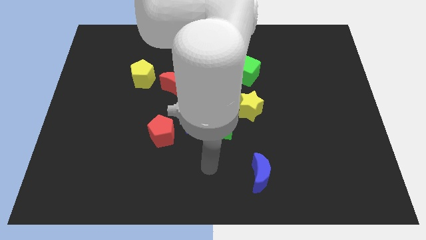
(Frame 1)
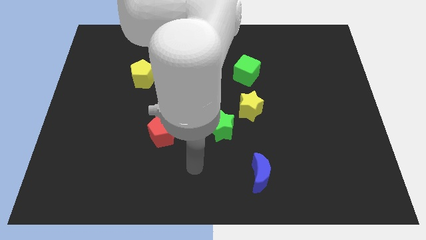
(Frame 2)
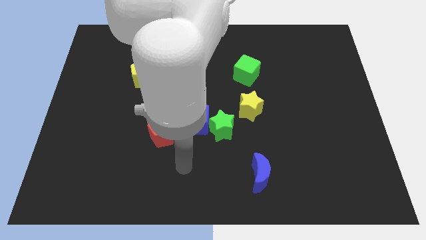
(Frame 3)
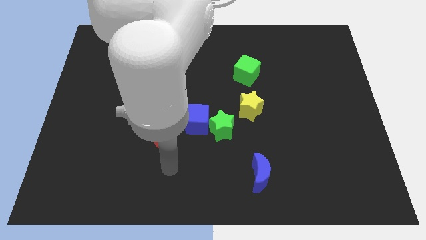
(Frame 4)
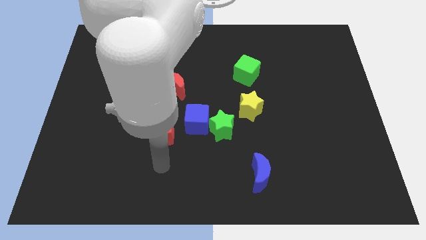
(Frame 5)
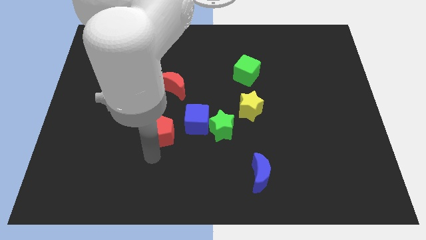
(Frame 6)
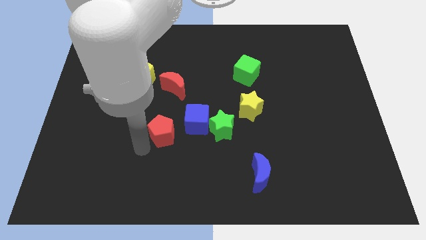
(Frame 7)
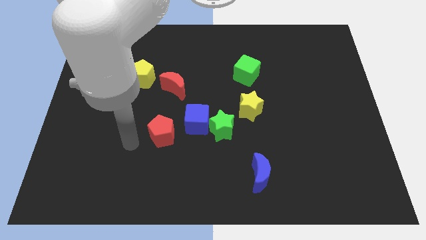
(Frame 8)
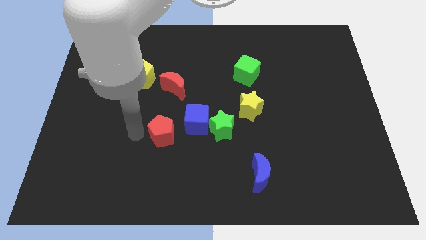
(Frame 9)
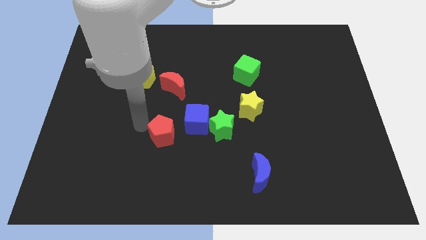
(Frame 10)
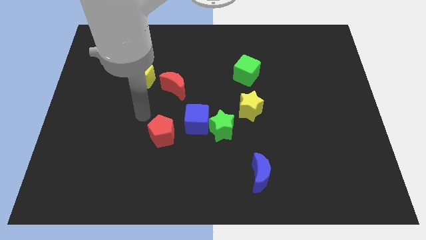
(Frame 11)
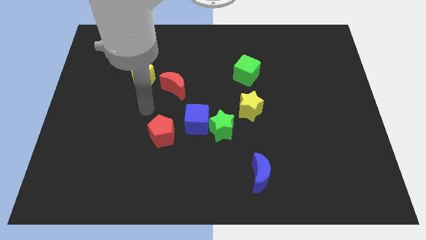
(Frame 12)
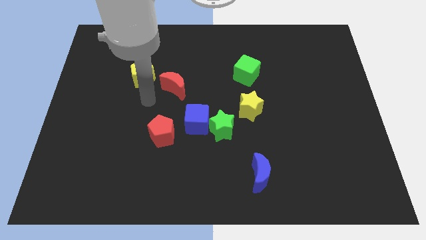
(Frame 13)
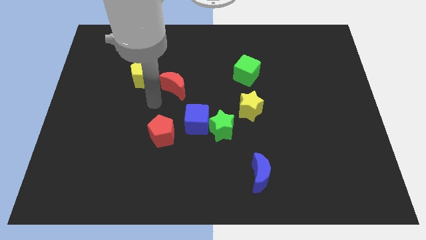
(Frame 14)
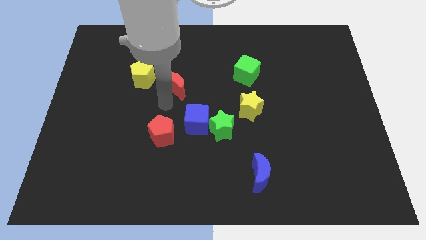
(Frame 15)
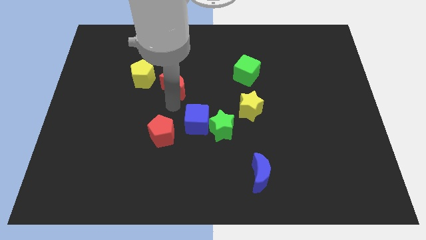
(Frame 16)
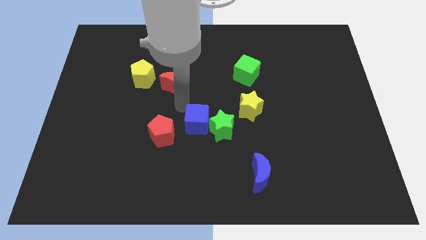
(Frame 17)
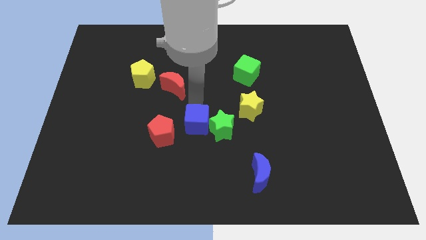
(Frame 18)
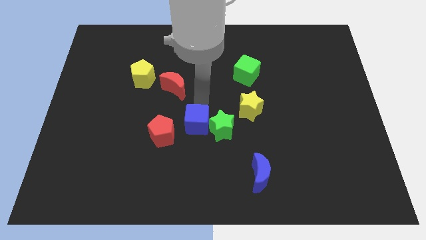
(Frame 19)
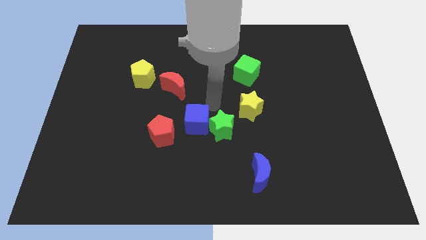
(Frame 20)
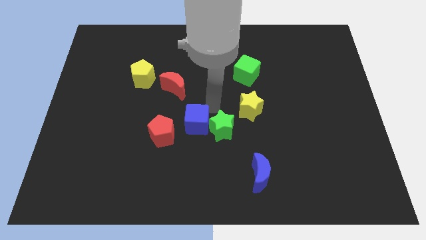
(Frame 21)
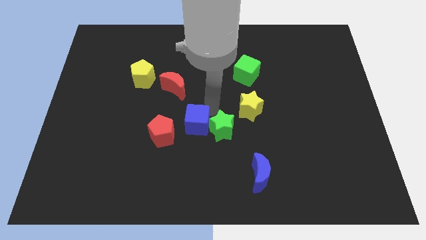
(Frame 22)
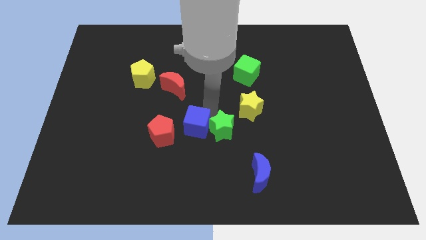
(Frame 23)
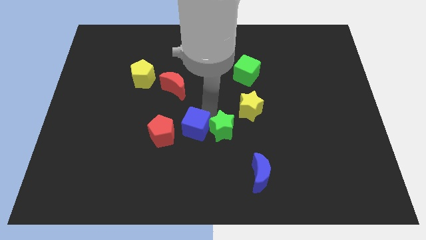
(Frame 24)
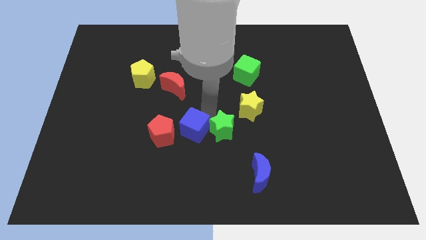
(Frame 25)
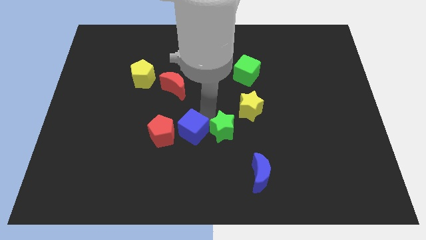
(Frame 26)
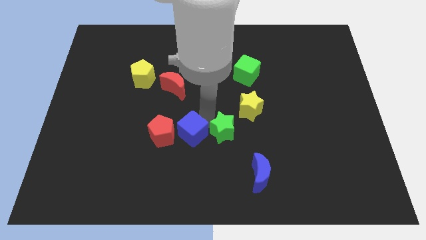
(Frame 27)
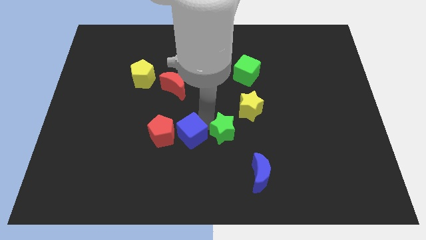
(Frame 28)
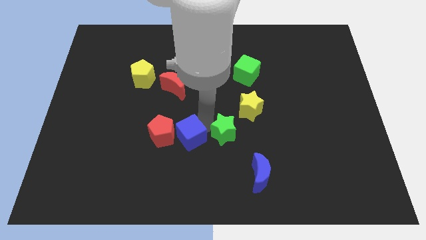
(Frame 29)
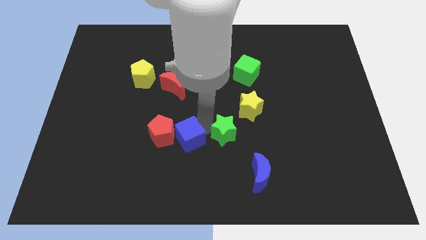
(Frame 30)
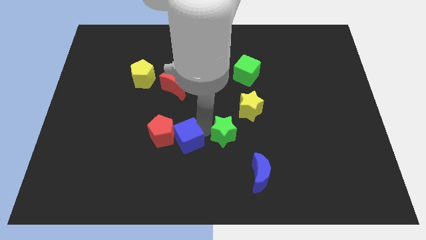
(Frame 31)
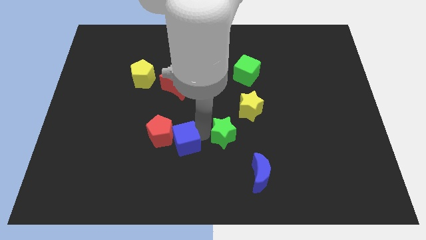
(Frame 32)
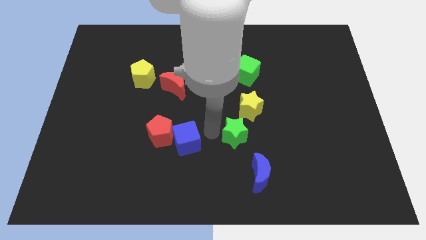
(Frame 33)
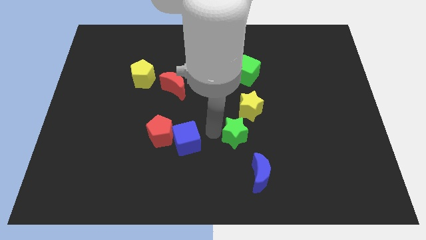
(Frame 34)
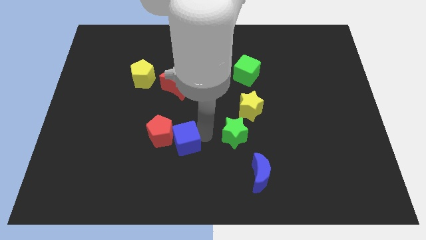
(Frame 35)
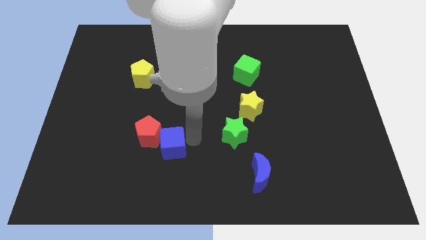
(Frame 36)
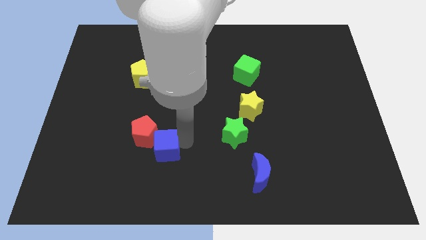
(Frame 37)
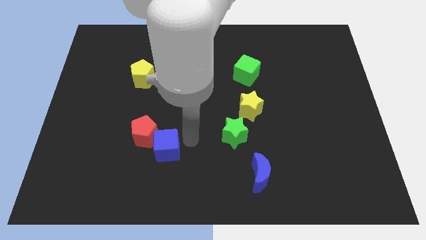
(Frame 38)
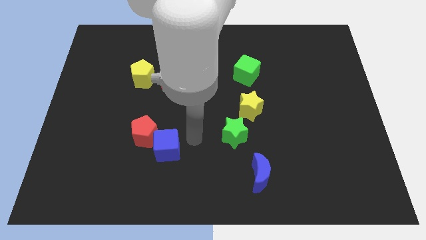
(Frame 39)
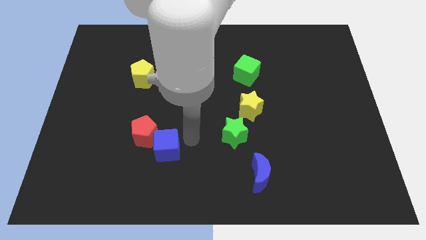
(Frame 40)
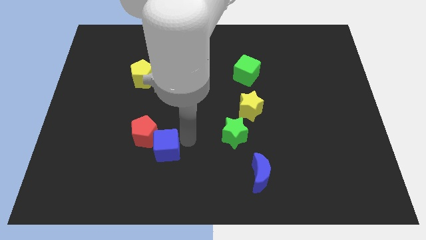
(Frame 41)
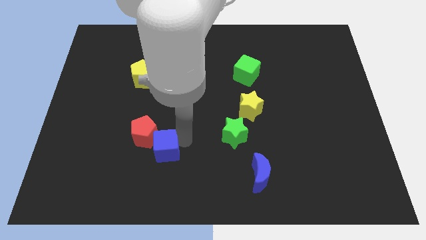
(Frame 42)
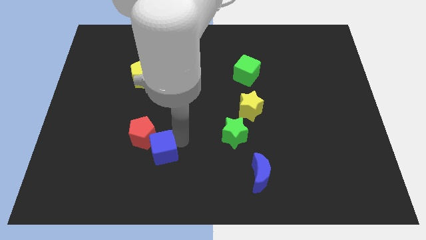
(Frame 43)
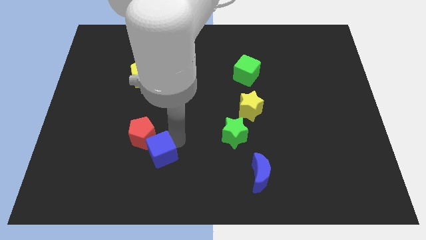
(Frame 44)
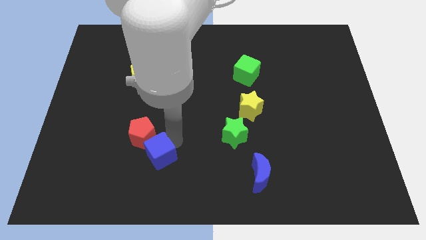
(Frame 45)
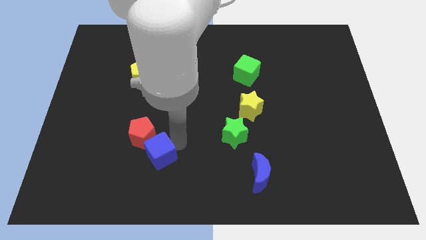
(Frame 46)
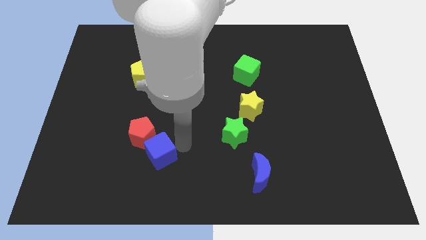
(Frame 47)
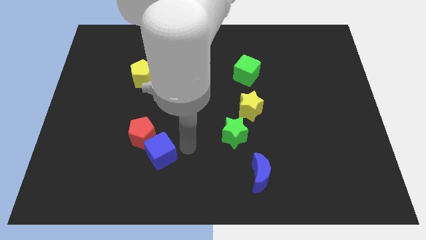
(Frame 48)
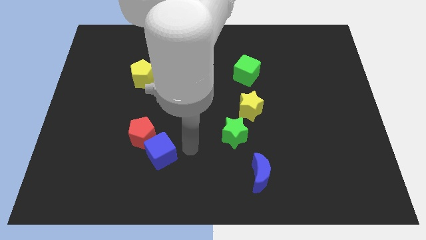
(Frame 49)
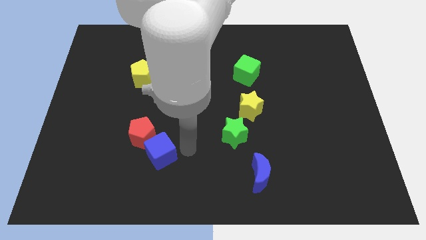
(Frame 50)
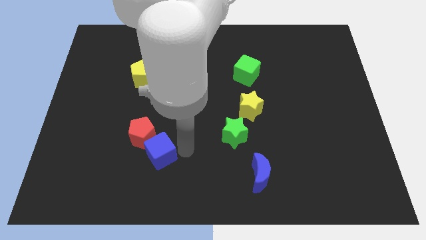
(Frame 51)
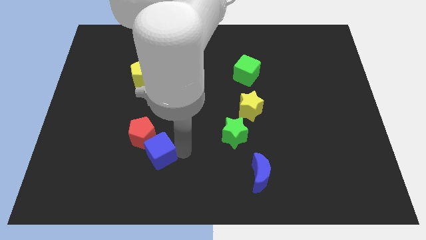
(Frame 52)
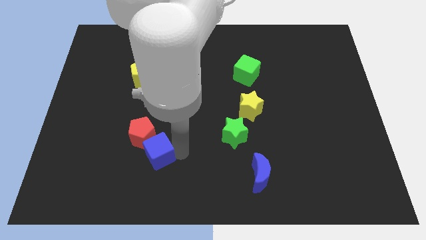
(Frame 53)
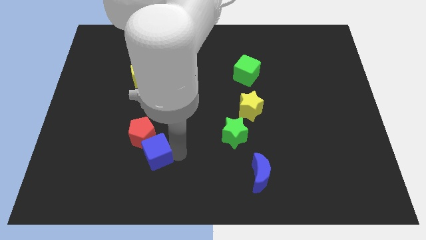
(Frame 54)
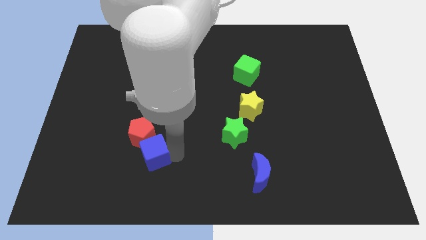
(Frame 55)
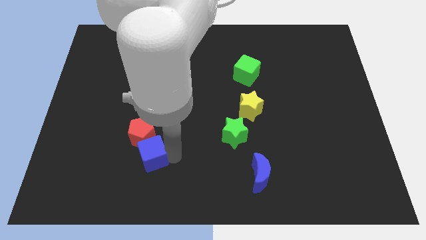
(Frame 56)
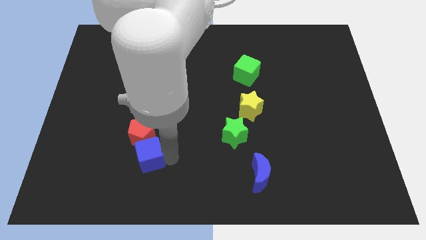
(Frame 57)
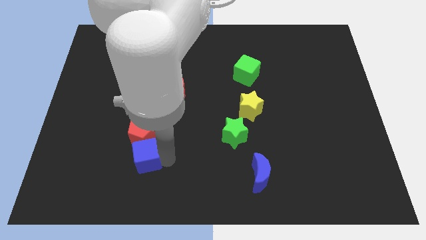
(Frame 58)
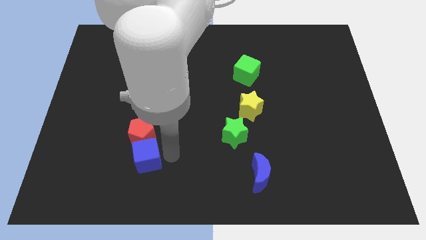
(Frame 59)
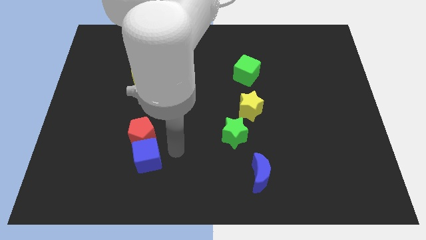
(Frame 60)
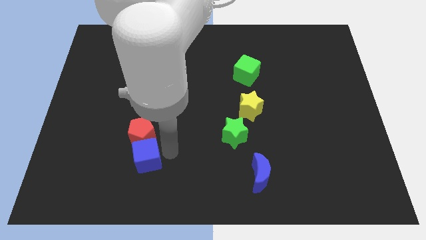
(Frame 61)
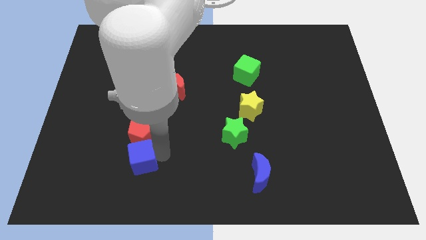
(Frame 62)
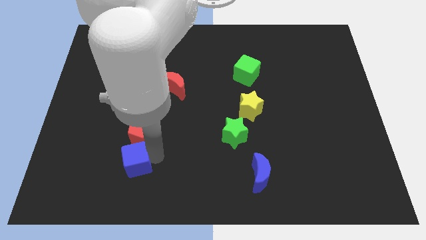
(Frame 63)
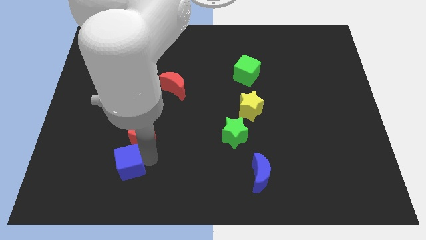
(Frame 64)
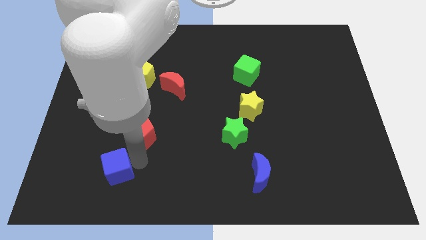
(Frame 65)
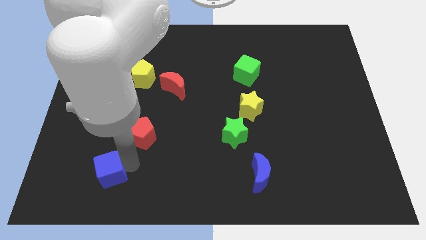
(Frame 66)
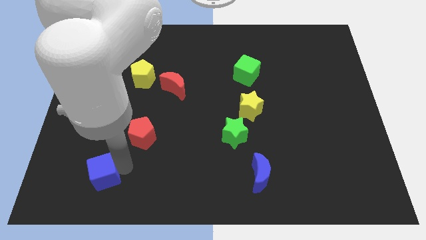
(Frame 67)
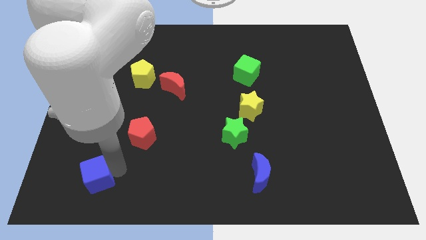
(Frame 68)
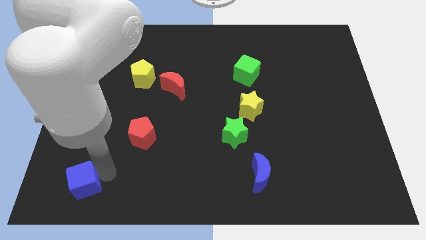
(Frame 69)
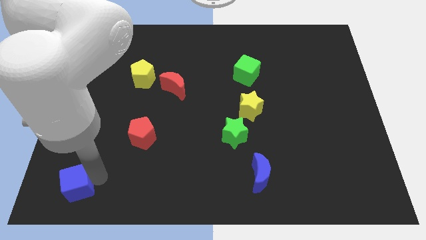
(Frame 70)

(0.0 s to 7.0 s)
push the blue cube to the bottom left of the board

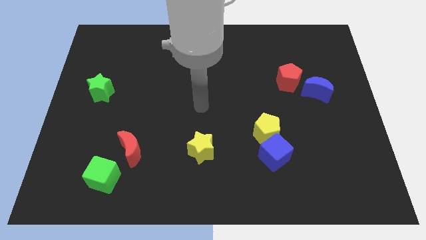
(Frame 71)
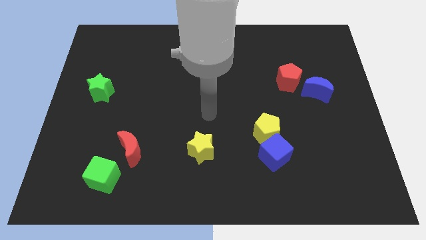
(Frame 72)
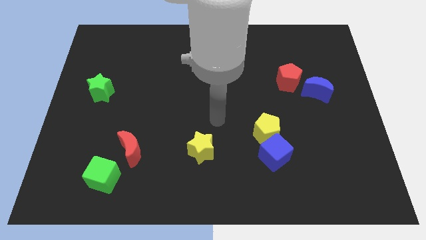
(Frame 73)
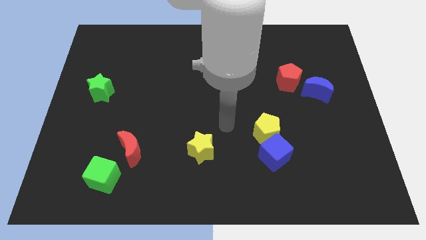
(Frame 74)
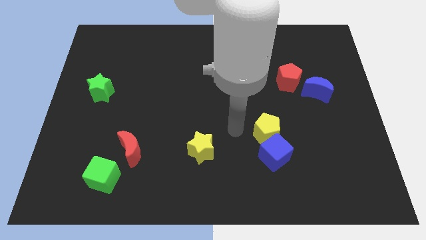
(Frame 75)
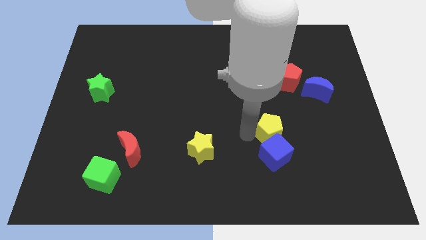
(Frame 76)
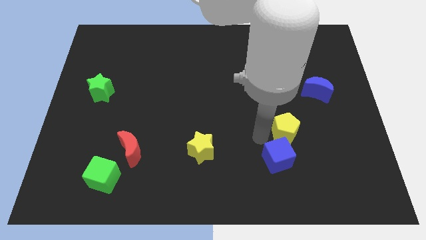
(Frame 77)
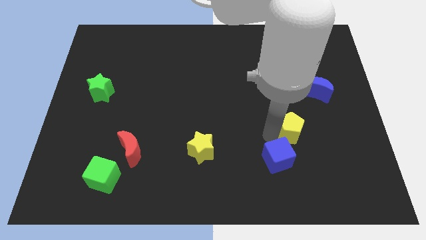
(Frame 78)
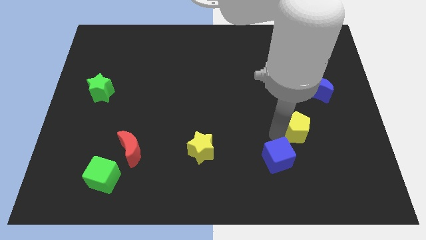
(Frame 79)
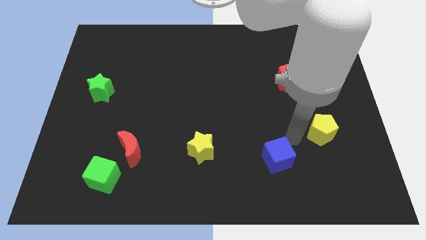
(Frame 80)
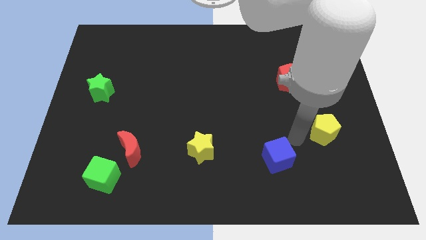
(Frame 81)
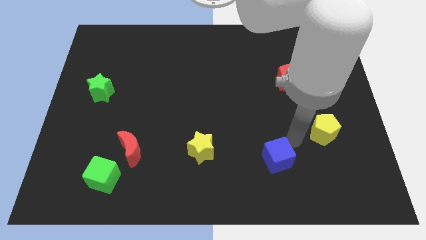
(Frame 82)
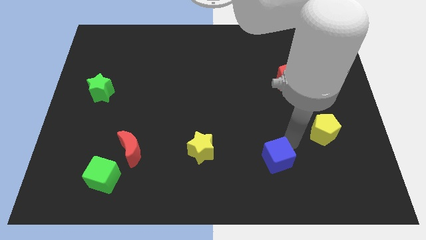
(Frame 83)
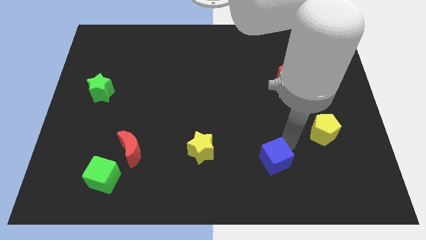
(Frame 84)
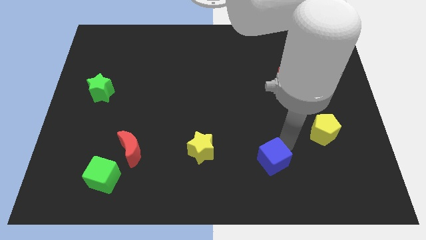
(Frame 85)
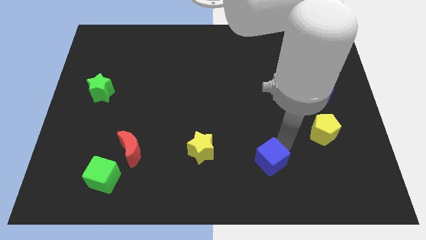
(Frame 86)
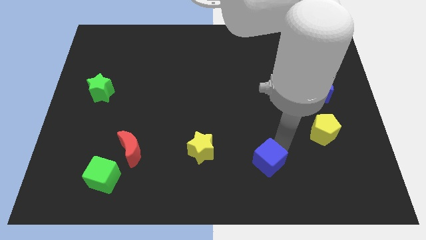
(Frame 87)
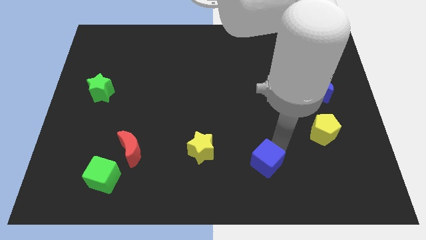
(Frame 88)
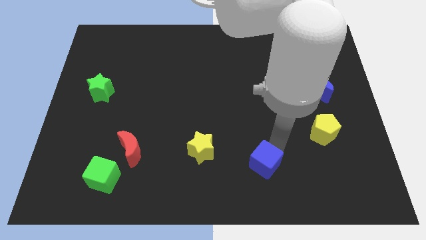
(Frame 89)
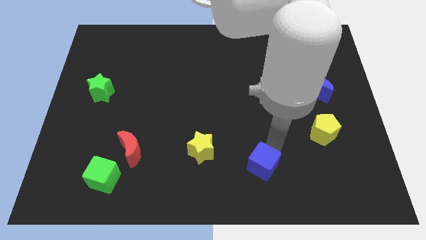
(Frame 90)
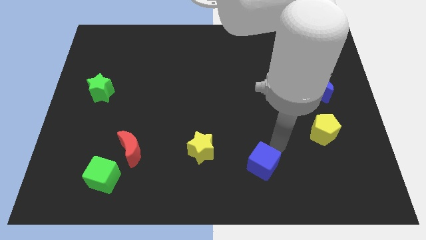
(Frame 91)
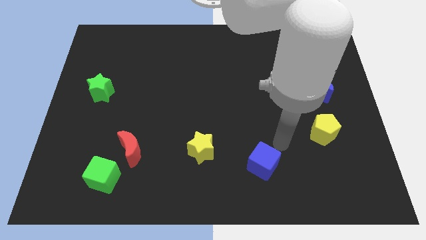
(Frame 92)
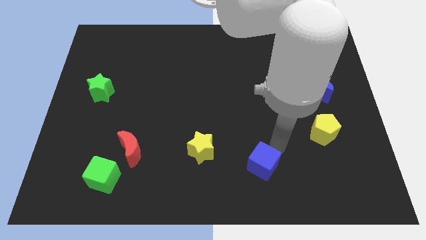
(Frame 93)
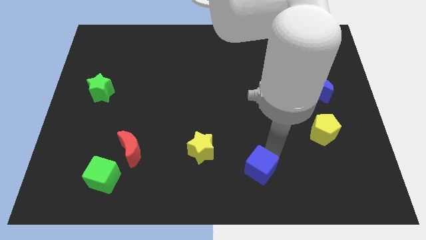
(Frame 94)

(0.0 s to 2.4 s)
put the blue cube to the bottom side
